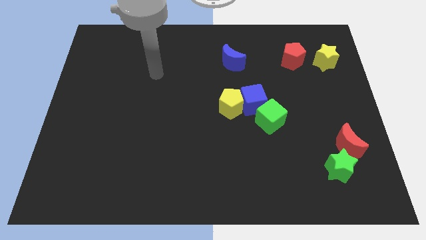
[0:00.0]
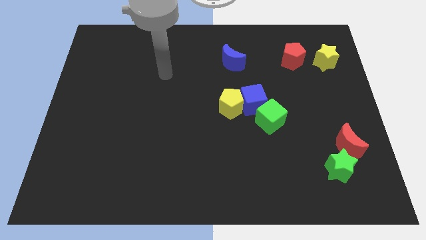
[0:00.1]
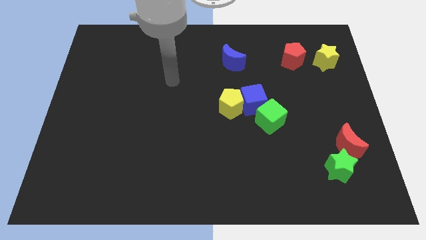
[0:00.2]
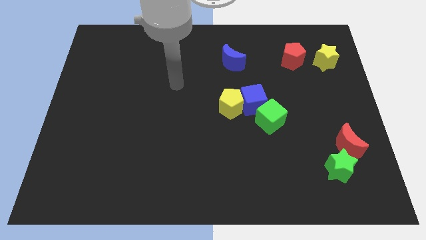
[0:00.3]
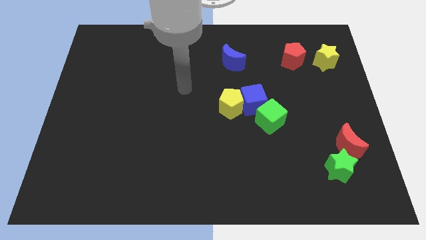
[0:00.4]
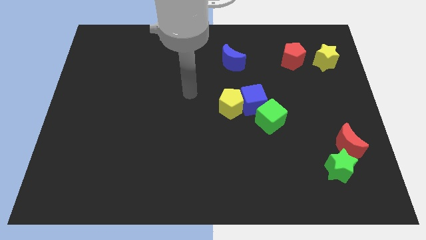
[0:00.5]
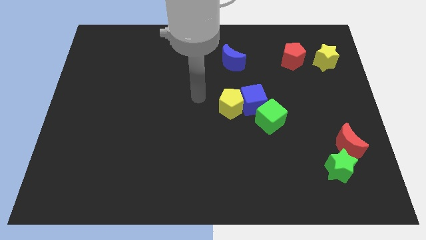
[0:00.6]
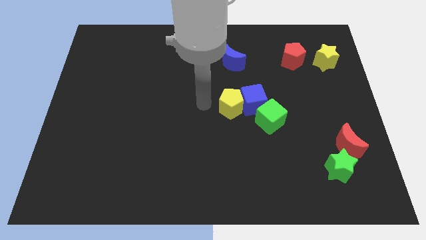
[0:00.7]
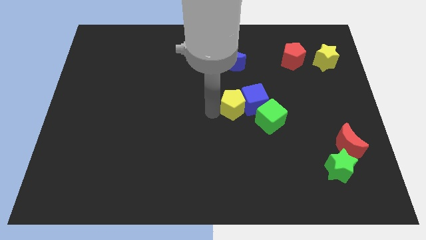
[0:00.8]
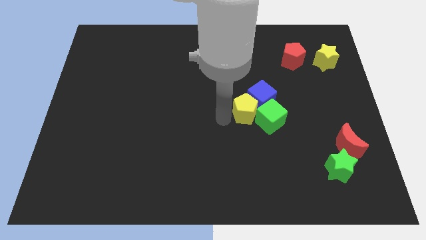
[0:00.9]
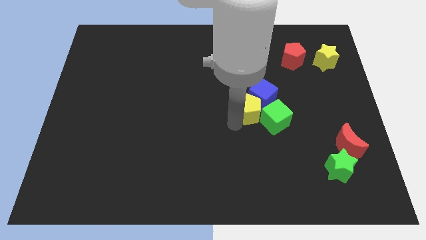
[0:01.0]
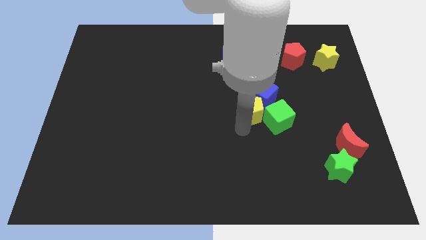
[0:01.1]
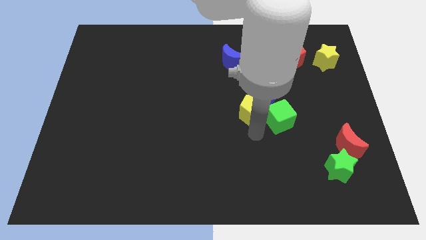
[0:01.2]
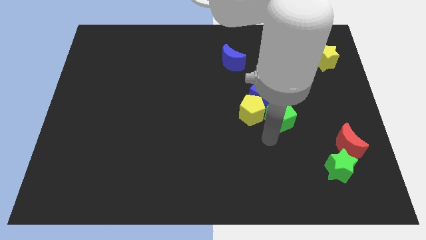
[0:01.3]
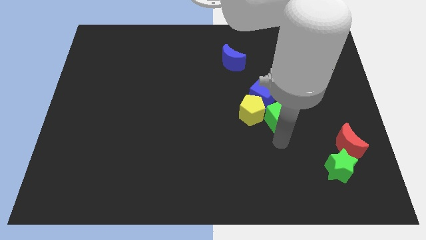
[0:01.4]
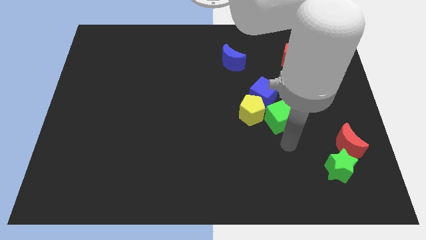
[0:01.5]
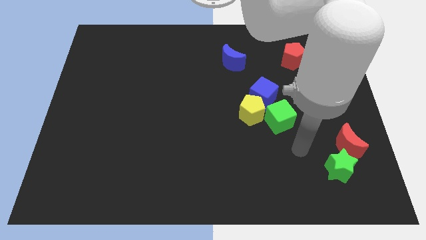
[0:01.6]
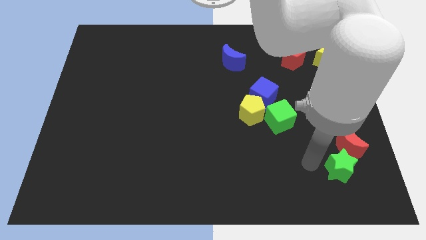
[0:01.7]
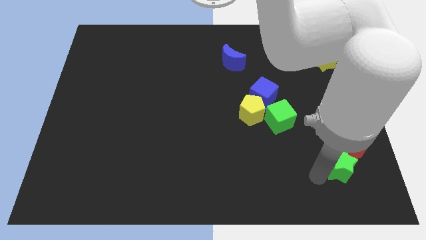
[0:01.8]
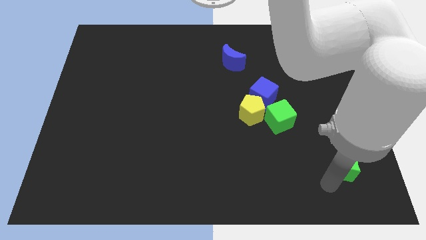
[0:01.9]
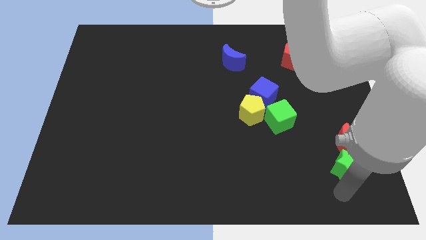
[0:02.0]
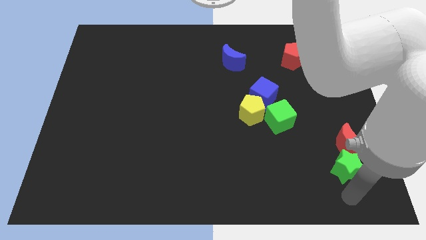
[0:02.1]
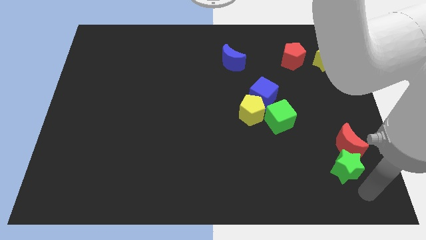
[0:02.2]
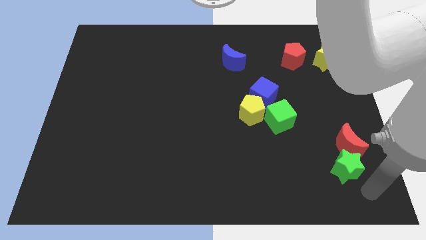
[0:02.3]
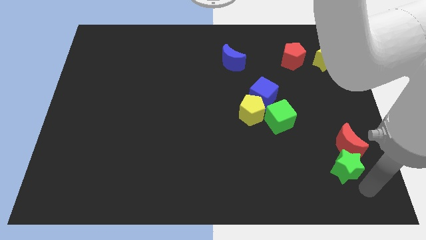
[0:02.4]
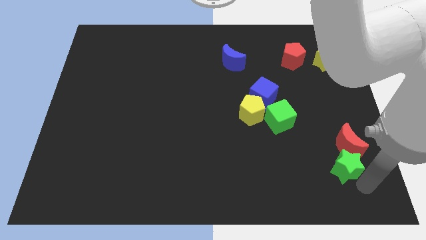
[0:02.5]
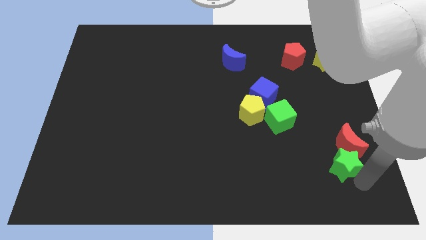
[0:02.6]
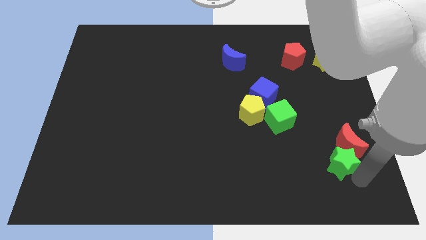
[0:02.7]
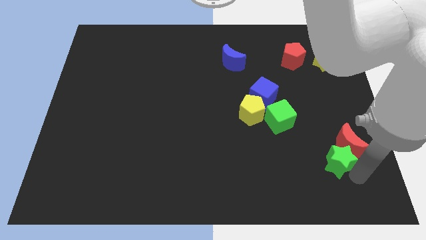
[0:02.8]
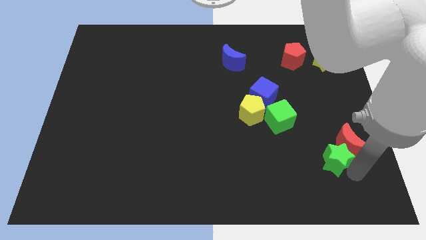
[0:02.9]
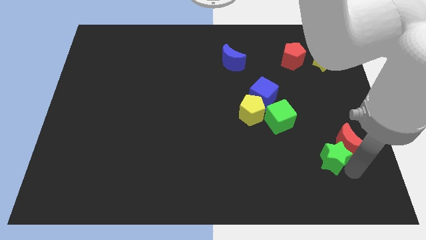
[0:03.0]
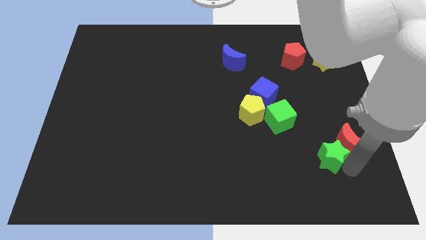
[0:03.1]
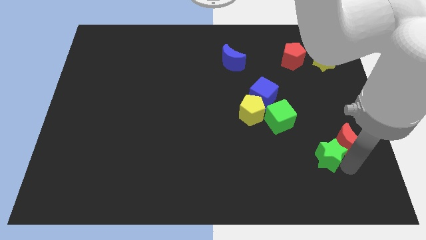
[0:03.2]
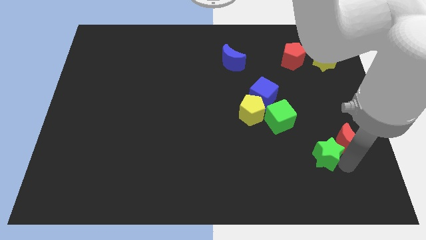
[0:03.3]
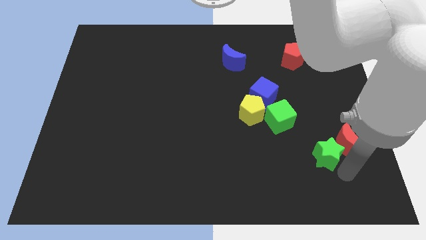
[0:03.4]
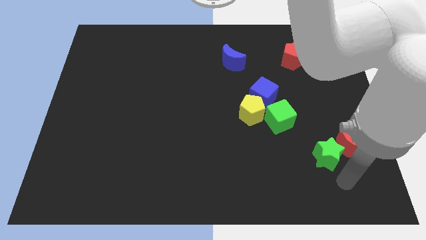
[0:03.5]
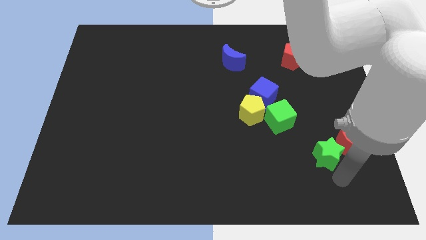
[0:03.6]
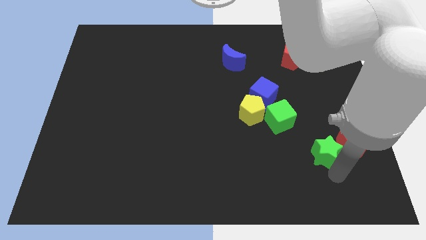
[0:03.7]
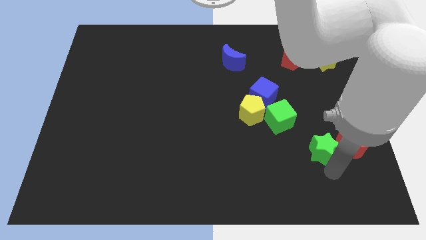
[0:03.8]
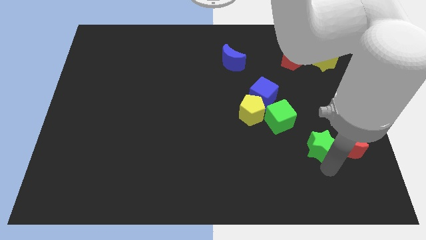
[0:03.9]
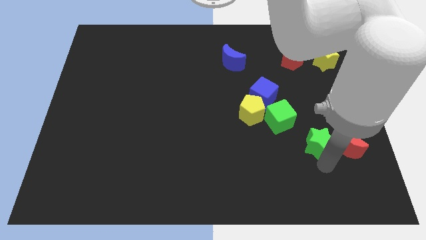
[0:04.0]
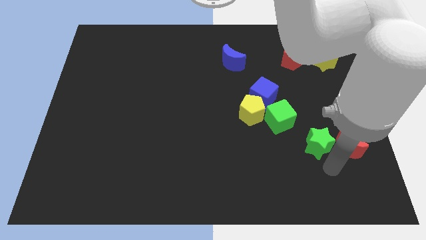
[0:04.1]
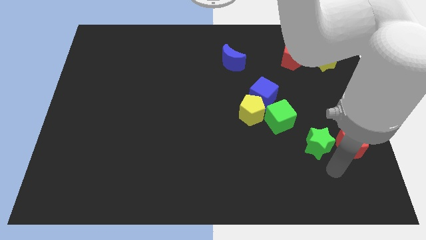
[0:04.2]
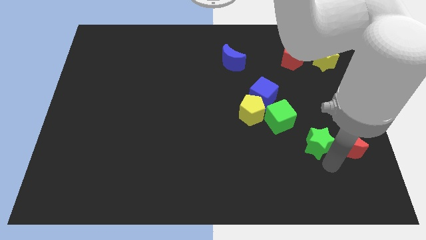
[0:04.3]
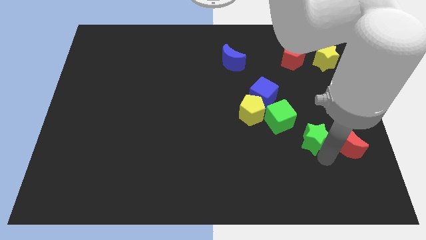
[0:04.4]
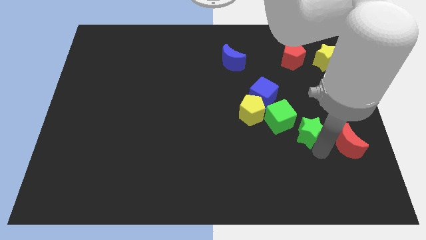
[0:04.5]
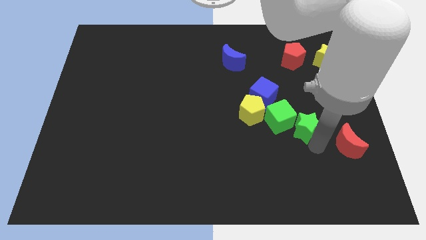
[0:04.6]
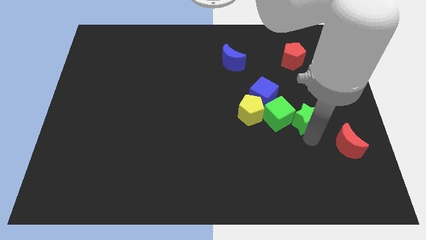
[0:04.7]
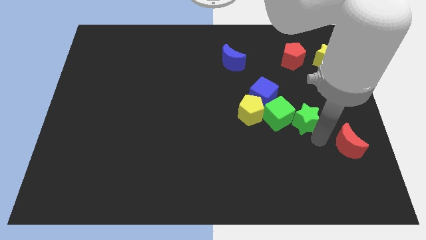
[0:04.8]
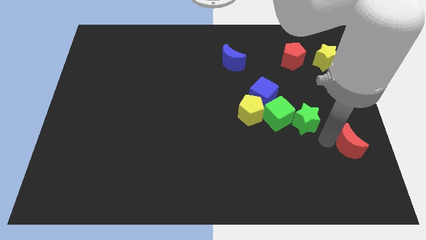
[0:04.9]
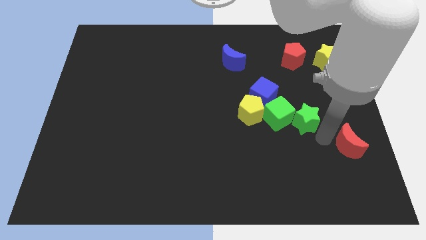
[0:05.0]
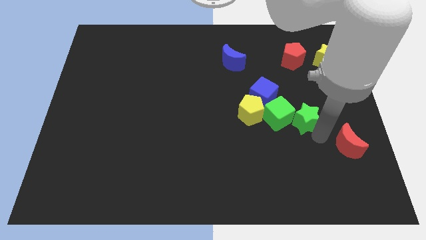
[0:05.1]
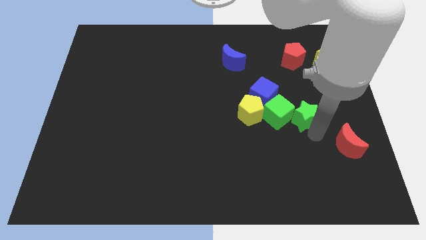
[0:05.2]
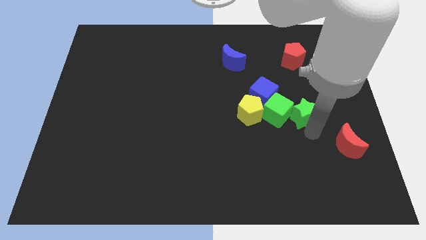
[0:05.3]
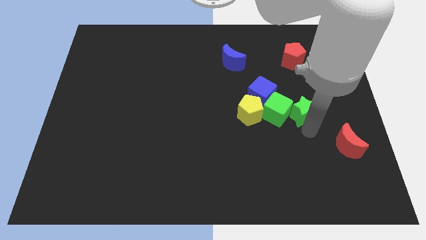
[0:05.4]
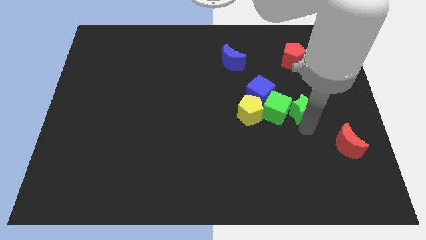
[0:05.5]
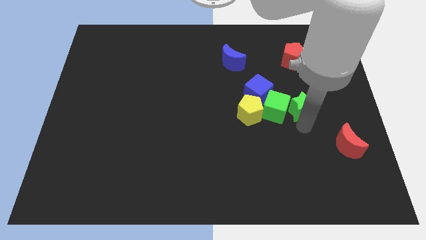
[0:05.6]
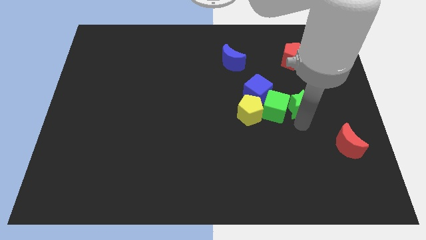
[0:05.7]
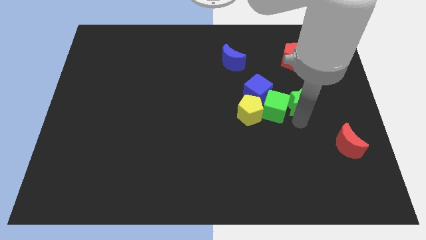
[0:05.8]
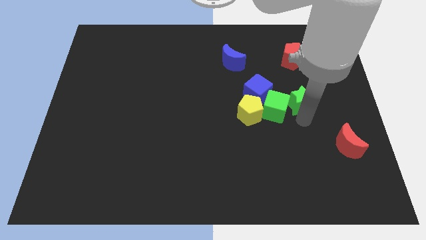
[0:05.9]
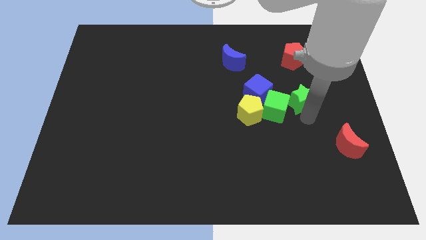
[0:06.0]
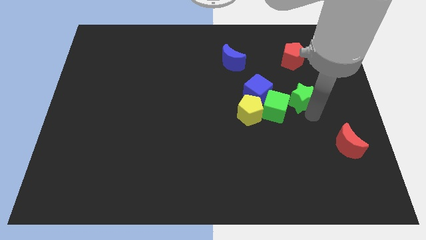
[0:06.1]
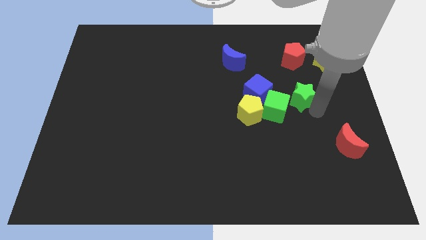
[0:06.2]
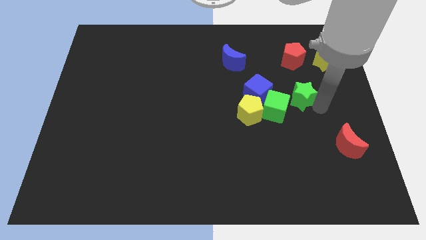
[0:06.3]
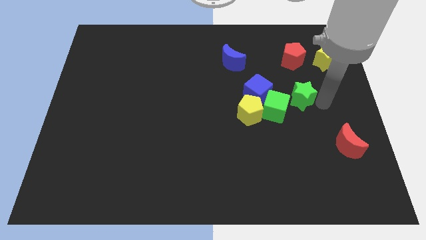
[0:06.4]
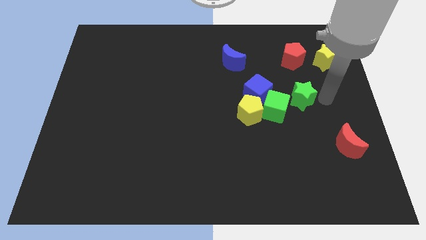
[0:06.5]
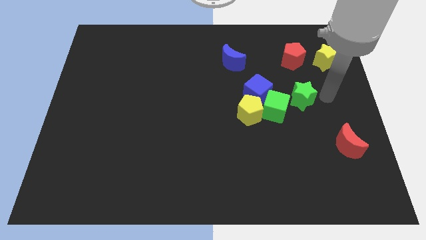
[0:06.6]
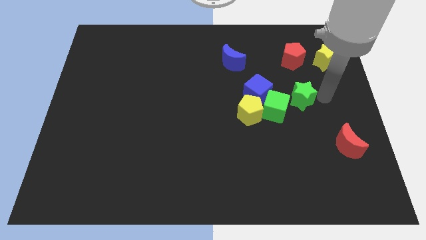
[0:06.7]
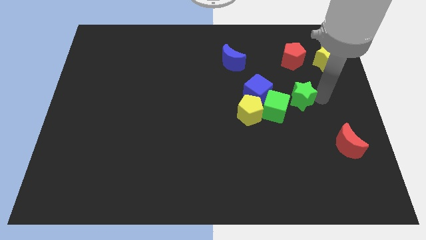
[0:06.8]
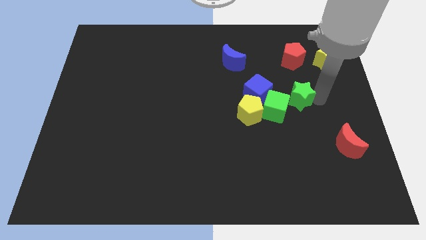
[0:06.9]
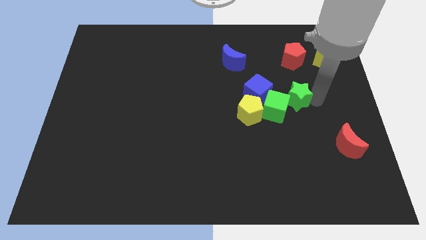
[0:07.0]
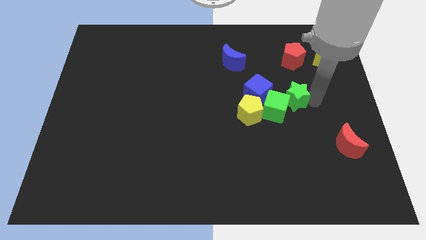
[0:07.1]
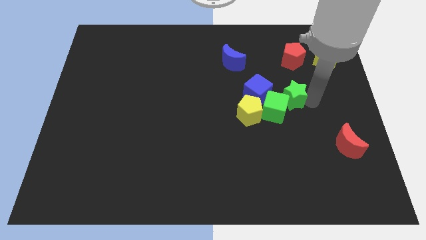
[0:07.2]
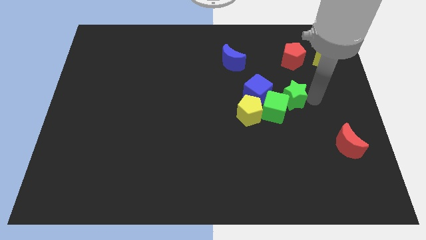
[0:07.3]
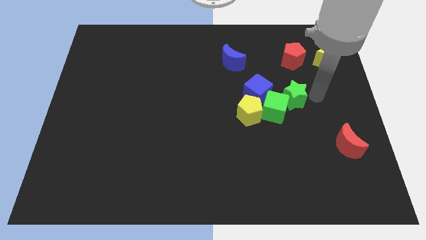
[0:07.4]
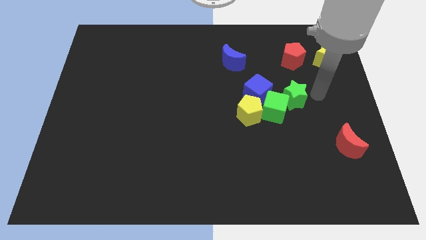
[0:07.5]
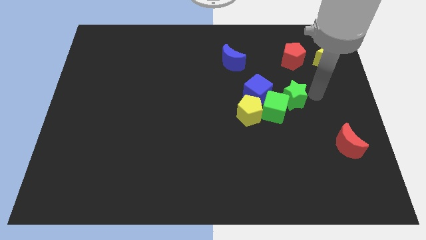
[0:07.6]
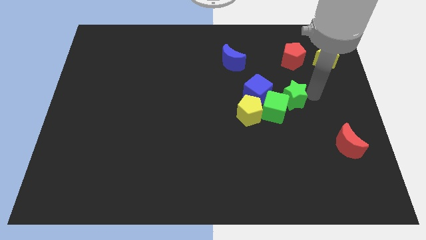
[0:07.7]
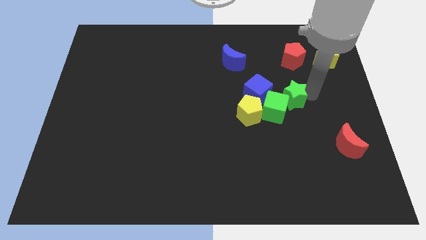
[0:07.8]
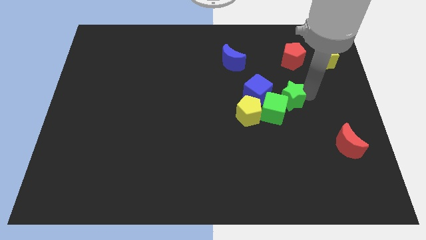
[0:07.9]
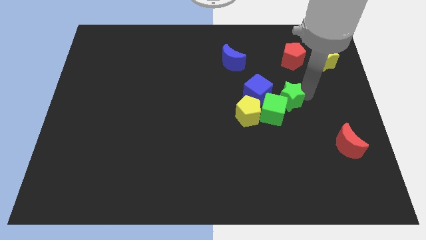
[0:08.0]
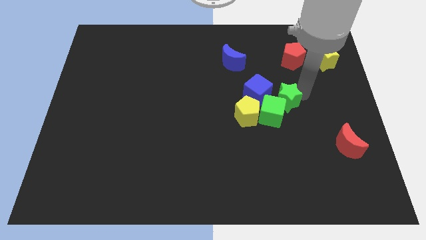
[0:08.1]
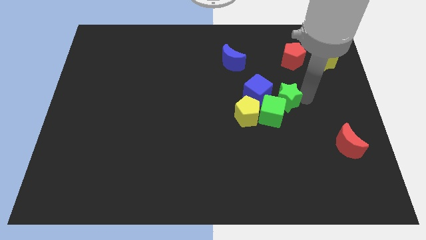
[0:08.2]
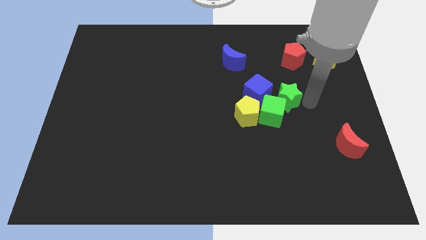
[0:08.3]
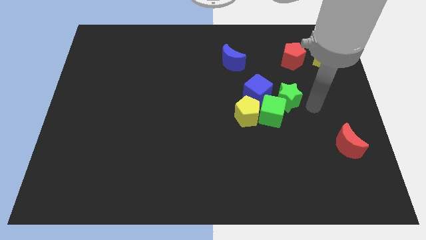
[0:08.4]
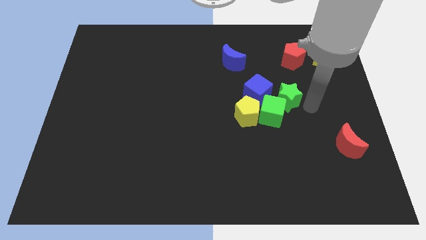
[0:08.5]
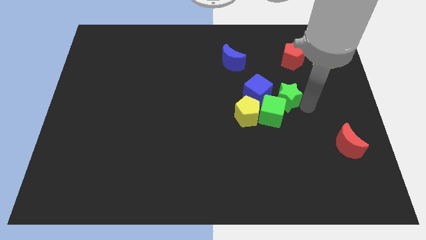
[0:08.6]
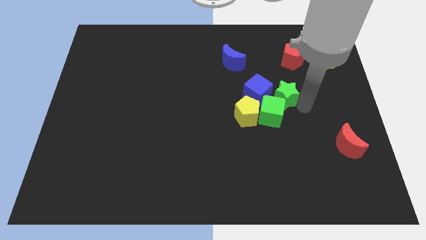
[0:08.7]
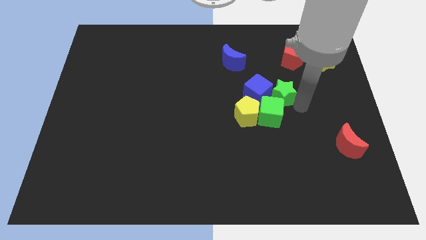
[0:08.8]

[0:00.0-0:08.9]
move the green star close to the blue cube
